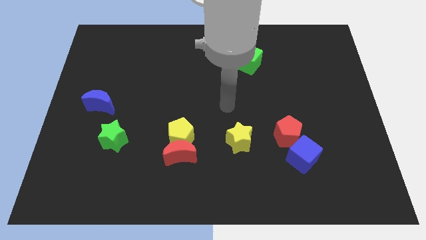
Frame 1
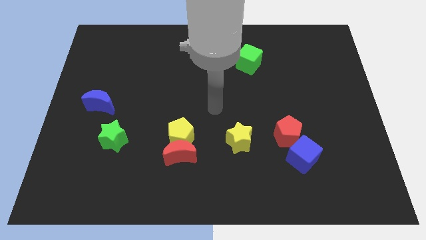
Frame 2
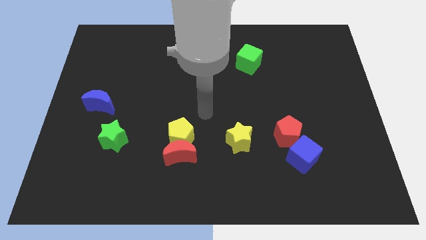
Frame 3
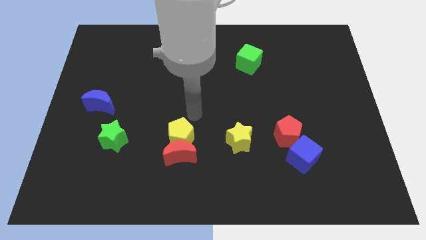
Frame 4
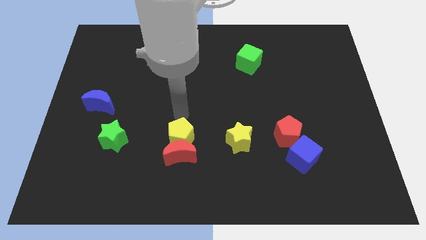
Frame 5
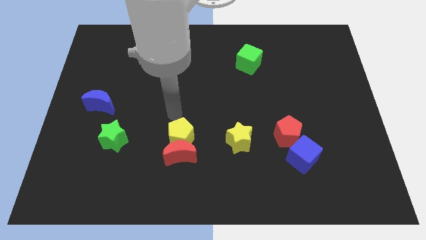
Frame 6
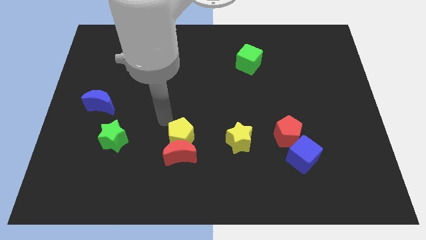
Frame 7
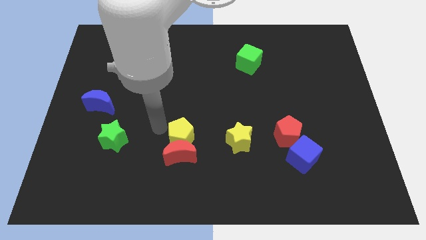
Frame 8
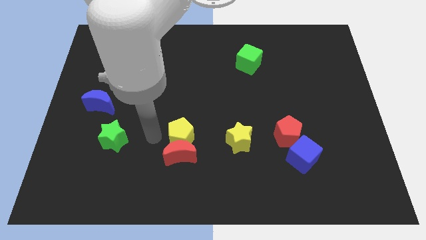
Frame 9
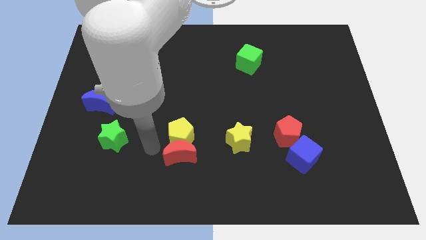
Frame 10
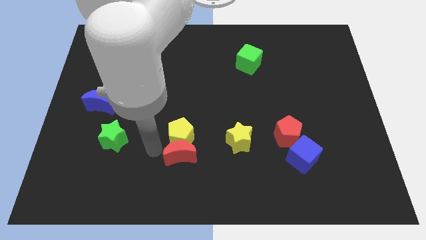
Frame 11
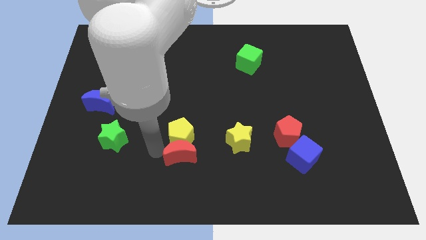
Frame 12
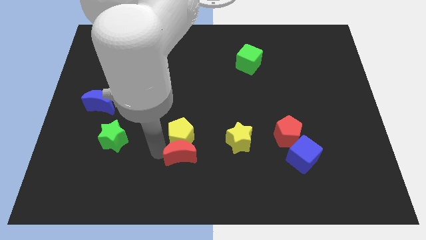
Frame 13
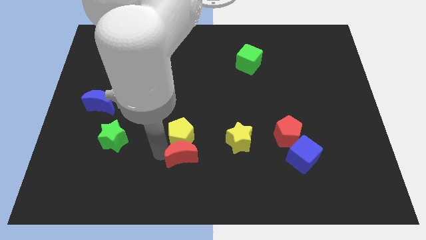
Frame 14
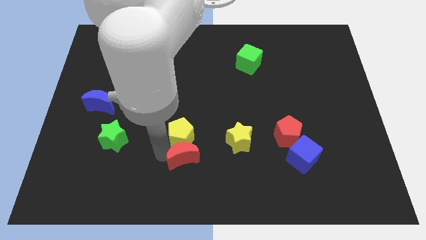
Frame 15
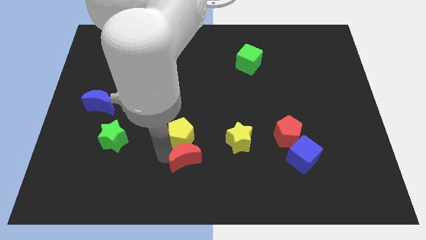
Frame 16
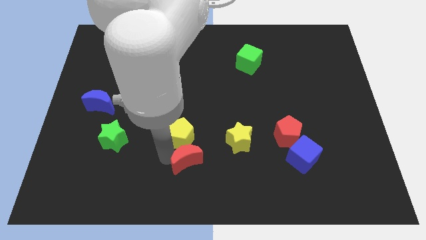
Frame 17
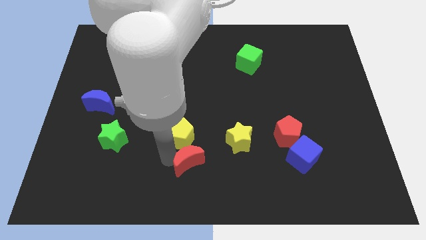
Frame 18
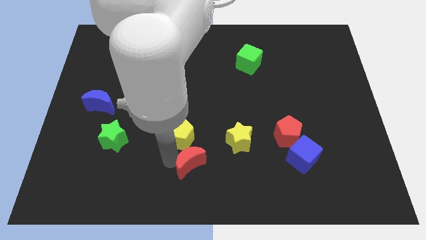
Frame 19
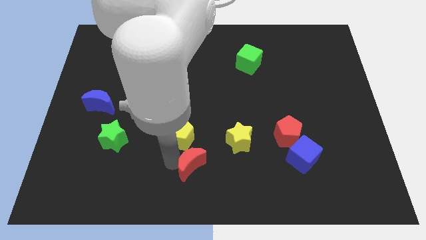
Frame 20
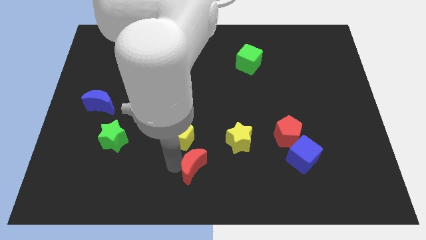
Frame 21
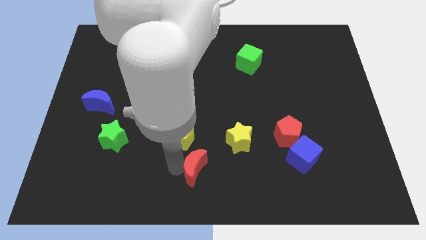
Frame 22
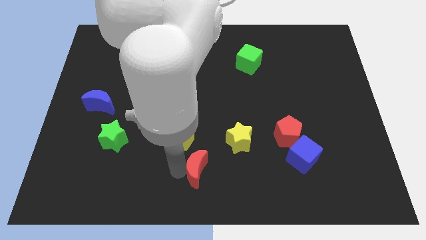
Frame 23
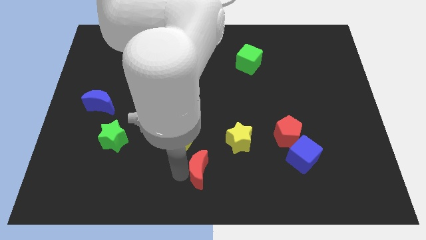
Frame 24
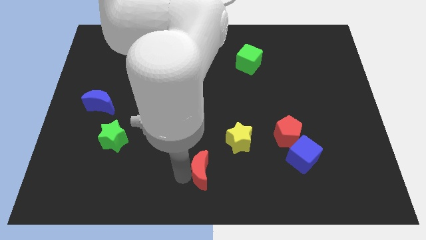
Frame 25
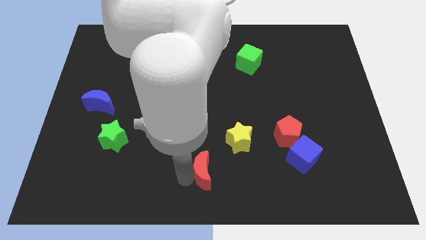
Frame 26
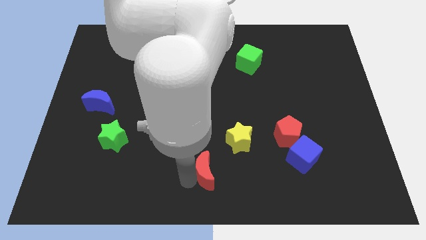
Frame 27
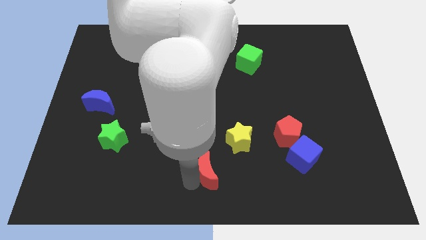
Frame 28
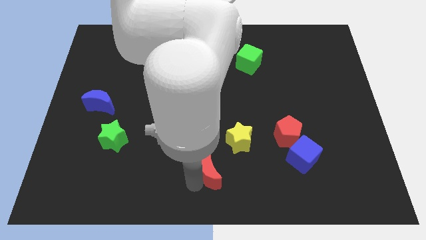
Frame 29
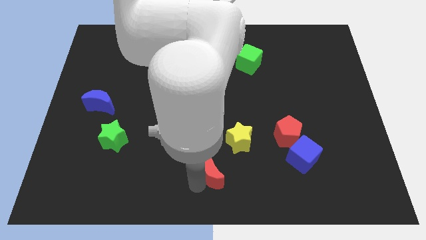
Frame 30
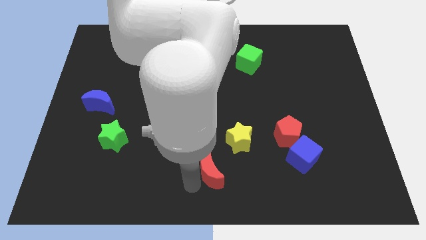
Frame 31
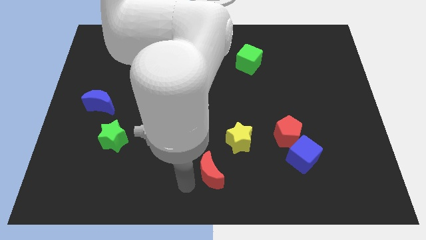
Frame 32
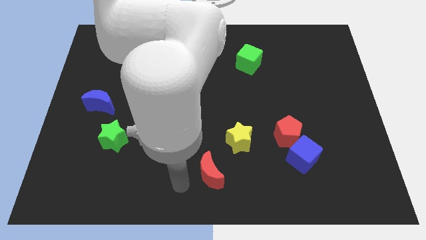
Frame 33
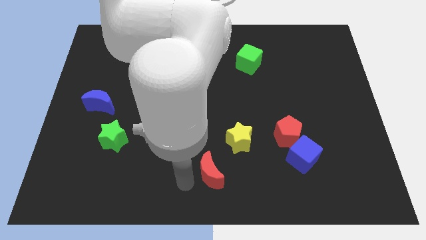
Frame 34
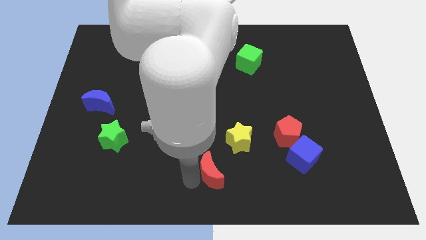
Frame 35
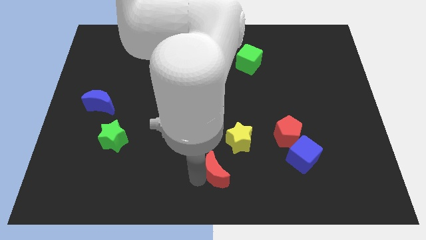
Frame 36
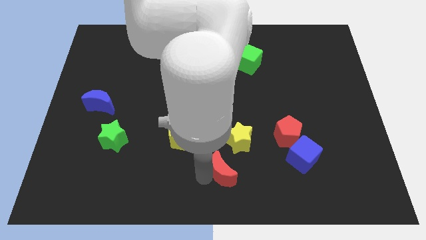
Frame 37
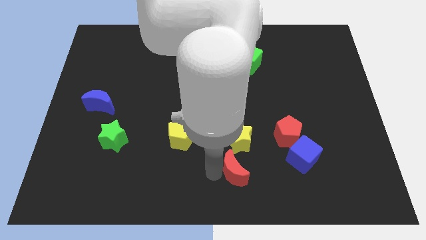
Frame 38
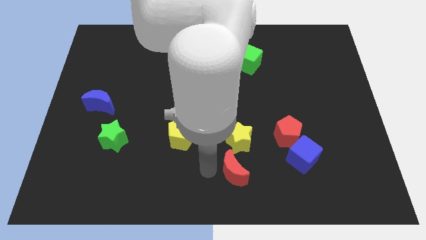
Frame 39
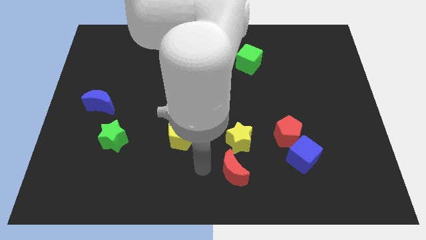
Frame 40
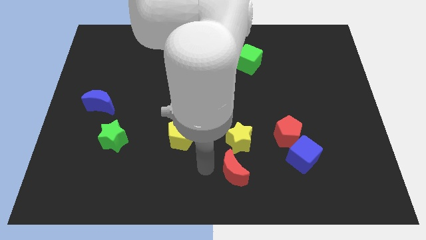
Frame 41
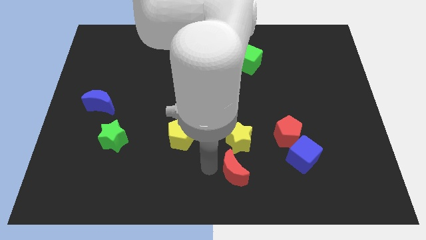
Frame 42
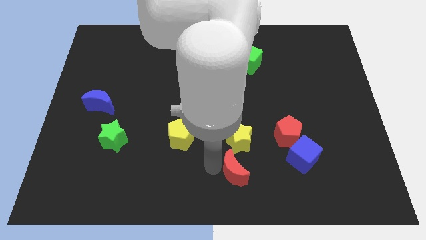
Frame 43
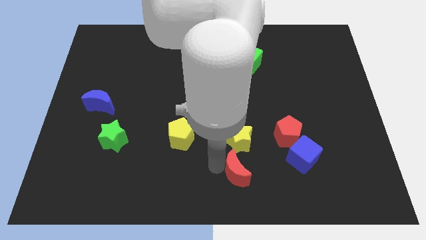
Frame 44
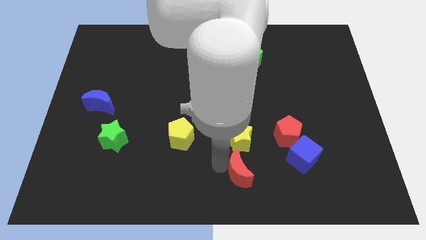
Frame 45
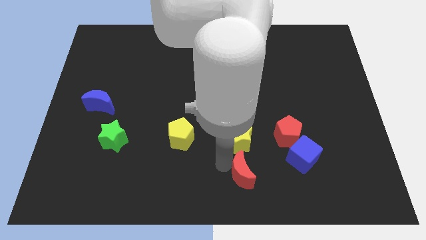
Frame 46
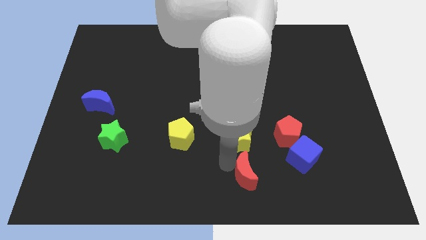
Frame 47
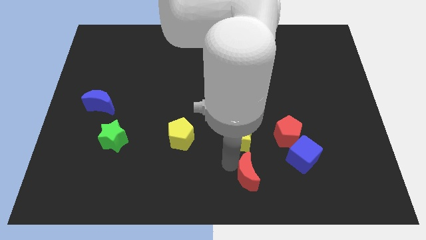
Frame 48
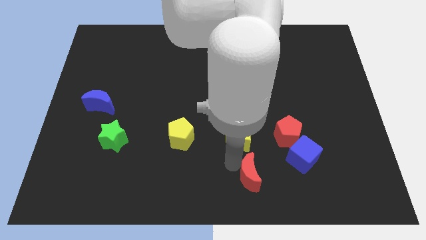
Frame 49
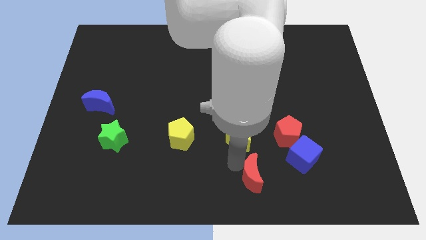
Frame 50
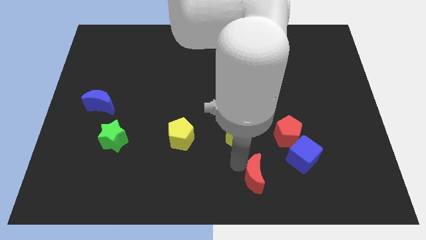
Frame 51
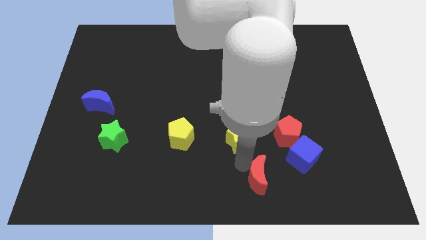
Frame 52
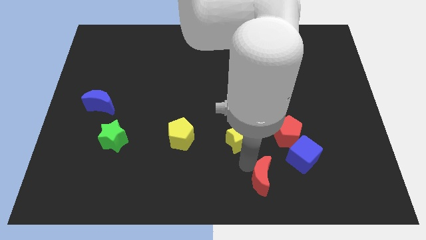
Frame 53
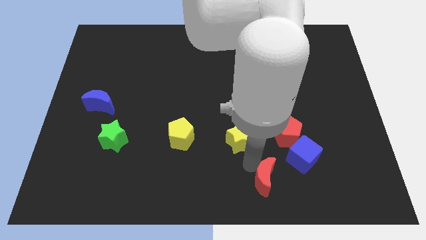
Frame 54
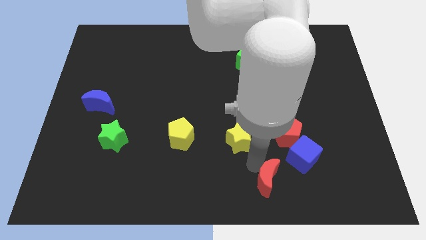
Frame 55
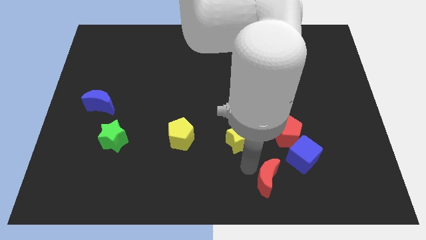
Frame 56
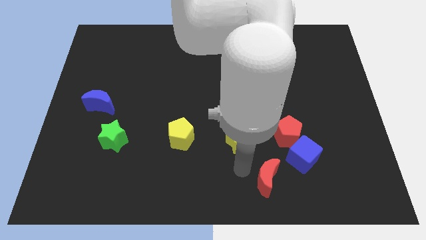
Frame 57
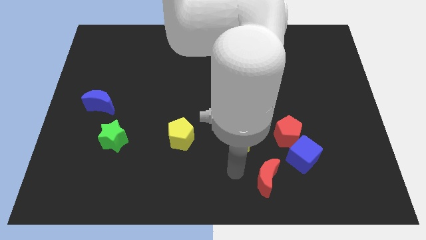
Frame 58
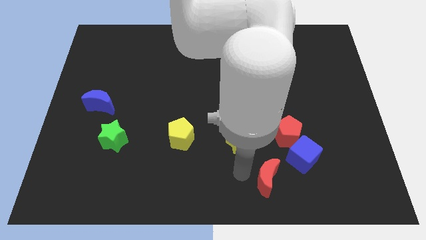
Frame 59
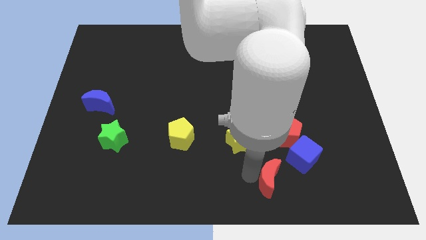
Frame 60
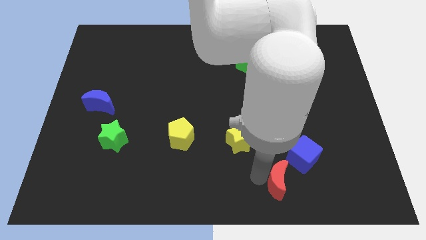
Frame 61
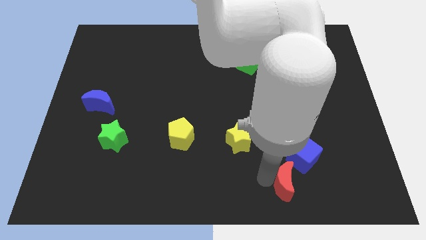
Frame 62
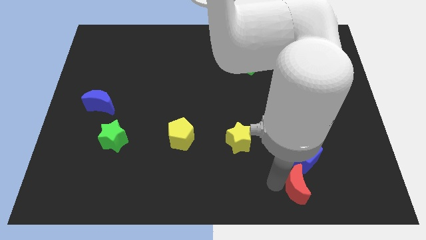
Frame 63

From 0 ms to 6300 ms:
move the red moon right

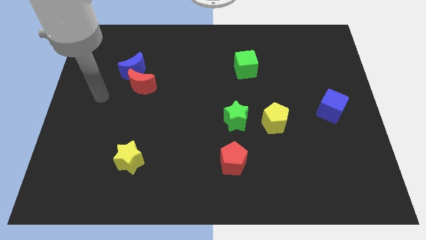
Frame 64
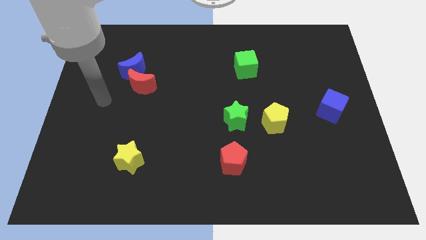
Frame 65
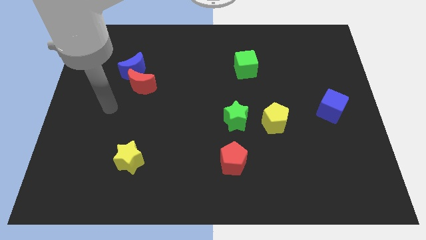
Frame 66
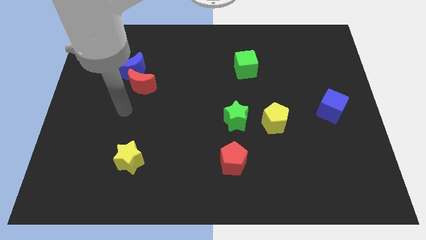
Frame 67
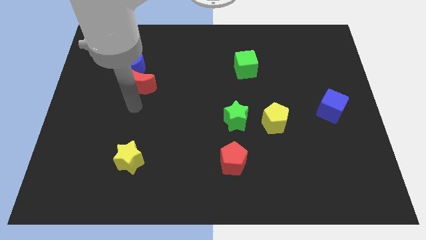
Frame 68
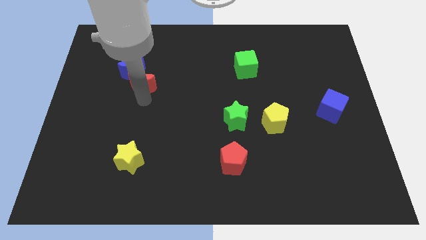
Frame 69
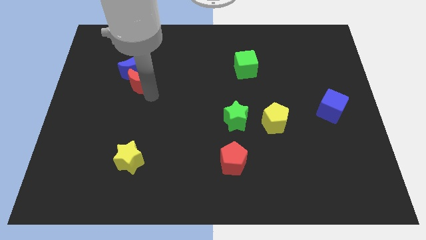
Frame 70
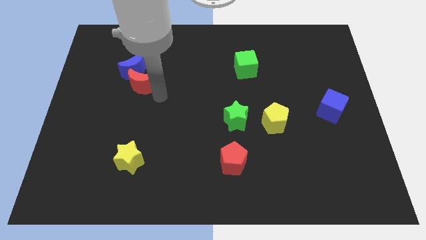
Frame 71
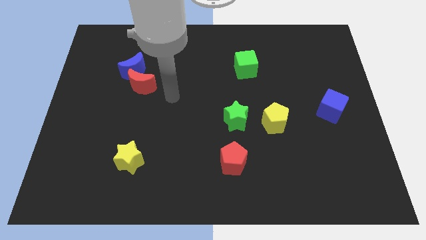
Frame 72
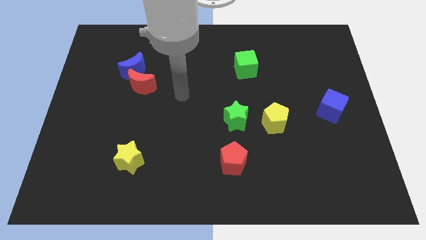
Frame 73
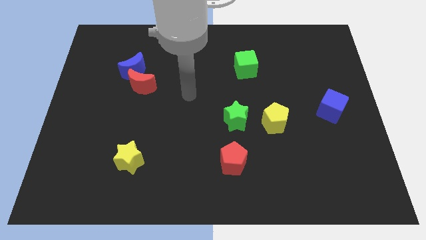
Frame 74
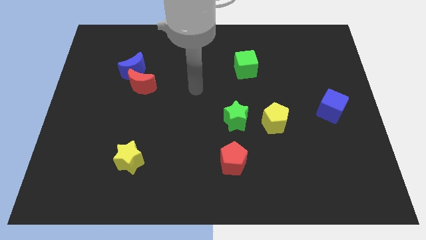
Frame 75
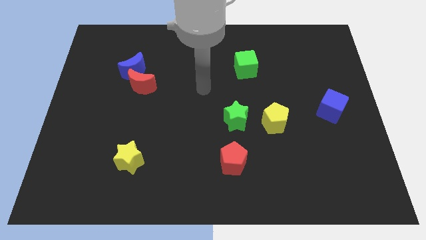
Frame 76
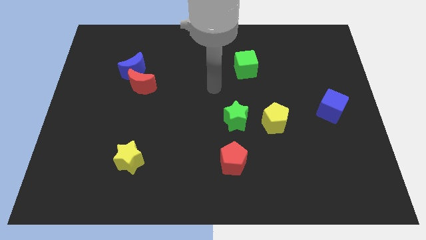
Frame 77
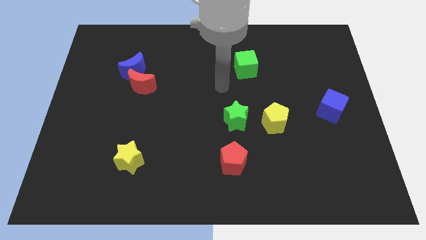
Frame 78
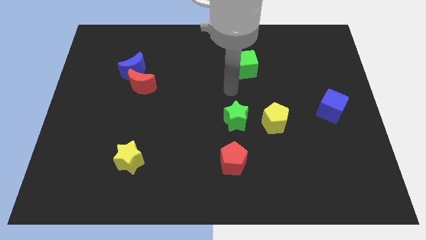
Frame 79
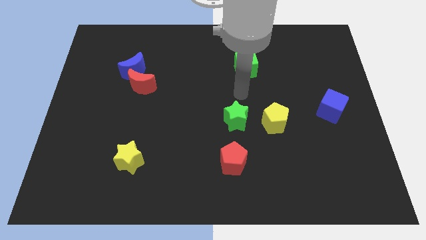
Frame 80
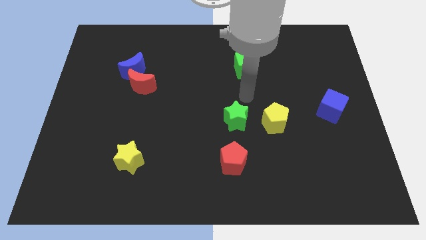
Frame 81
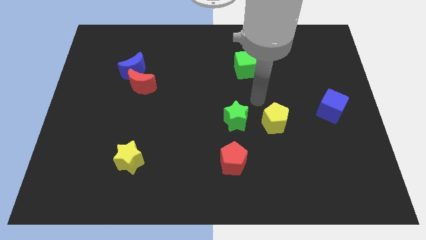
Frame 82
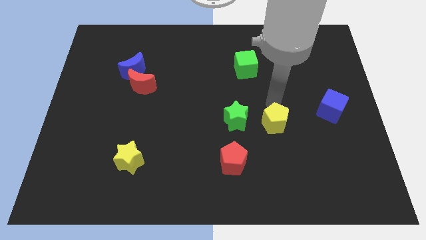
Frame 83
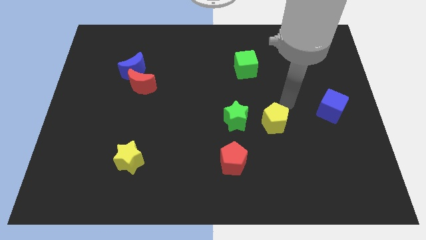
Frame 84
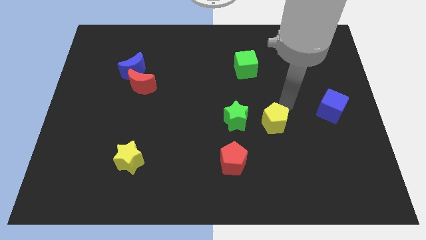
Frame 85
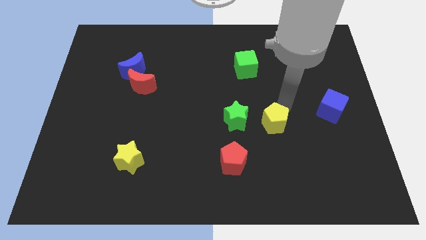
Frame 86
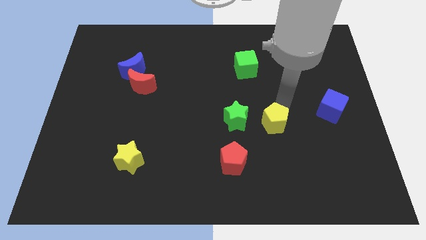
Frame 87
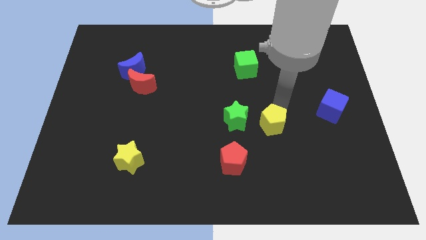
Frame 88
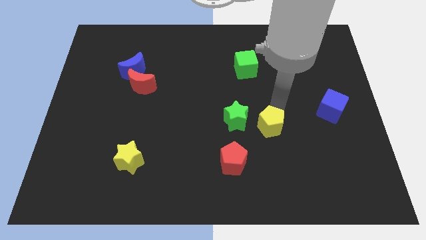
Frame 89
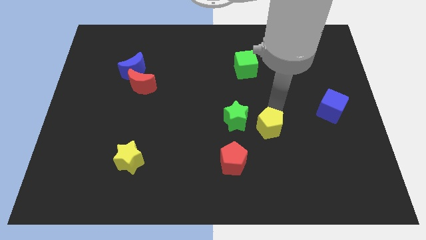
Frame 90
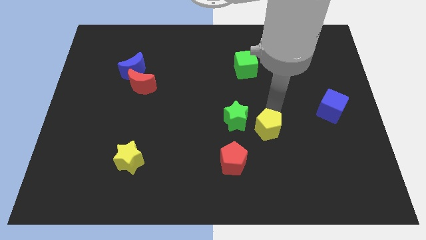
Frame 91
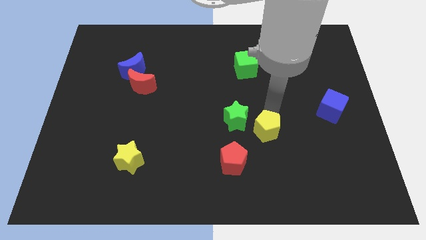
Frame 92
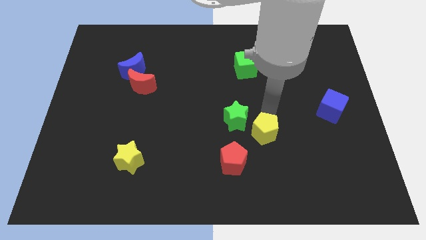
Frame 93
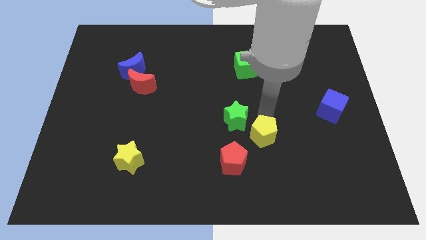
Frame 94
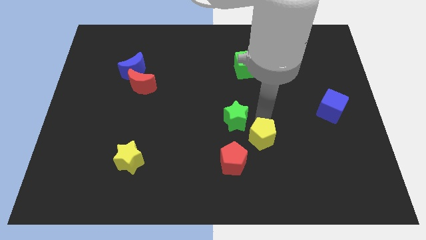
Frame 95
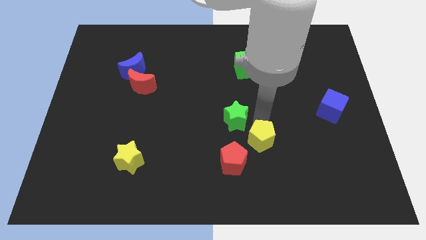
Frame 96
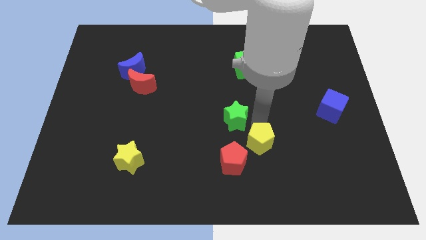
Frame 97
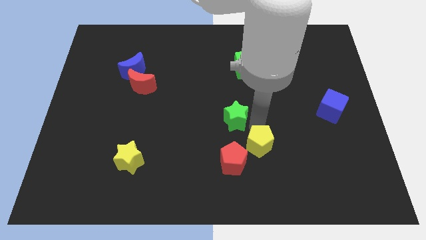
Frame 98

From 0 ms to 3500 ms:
move the yellow pentagon somewhat down and then to the left
